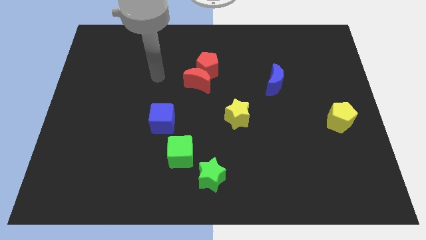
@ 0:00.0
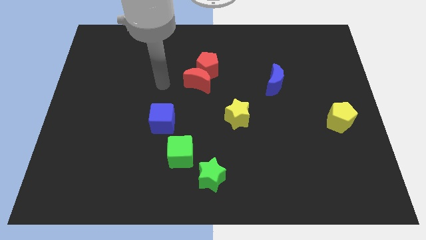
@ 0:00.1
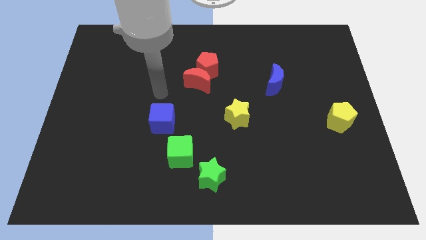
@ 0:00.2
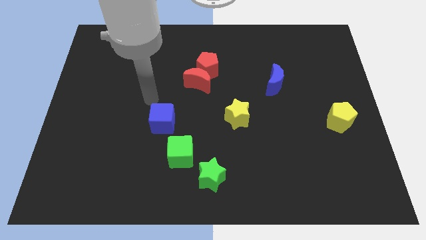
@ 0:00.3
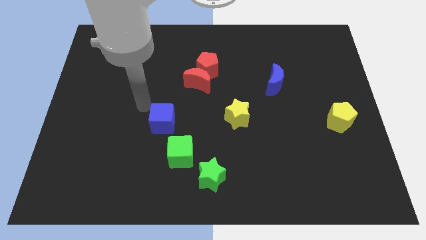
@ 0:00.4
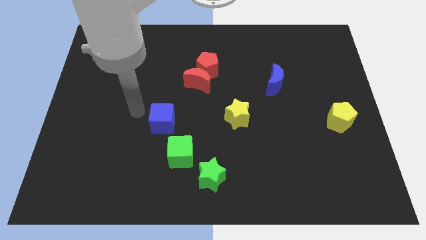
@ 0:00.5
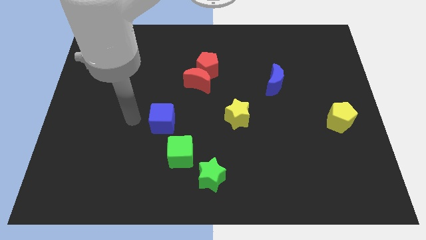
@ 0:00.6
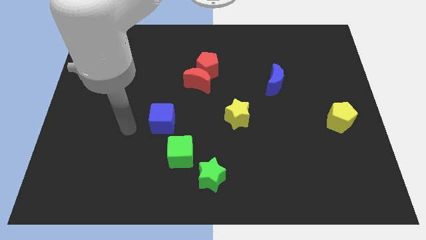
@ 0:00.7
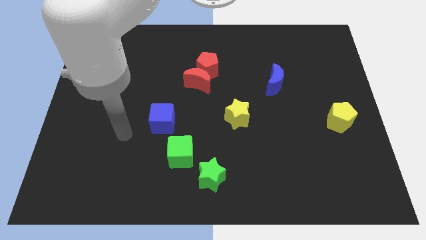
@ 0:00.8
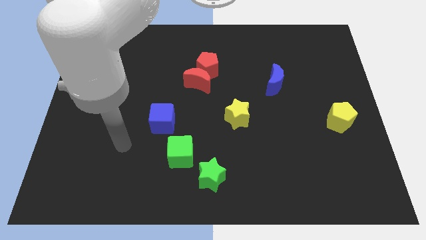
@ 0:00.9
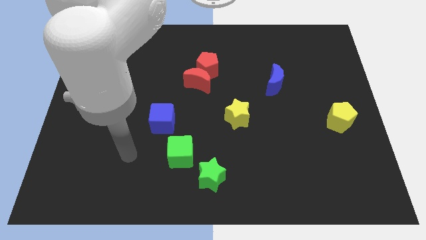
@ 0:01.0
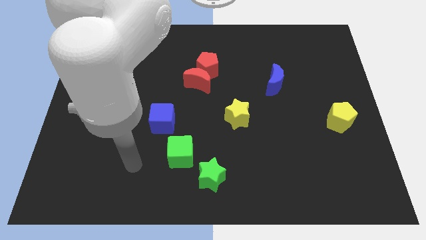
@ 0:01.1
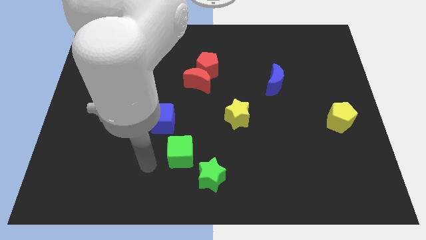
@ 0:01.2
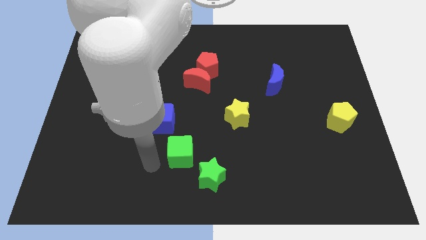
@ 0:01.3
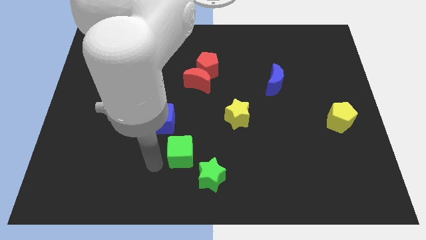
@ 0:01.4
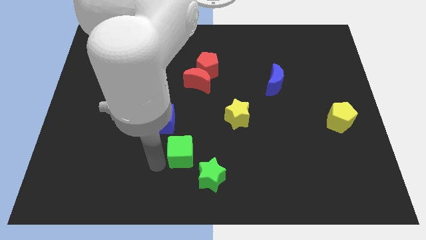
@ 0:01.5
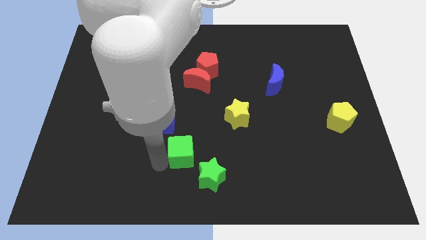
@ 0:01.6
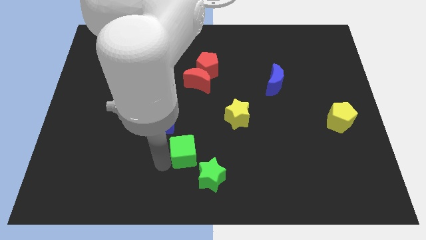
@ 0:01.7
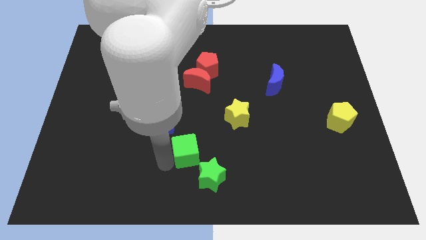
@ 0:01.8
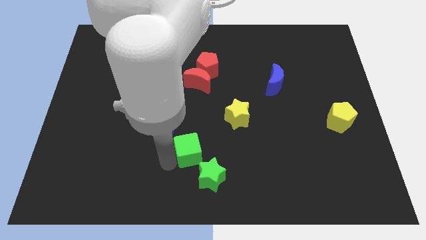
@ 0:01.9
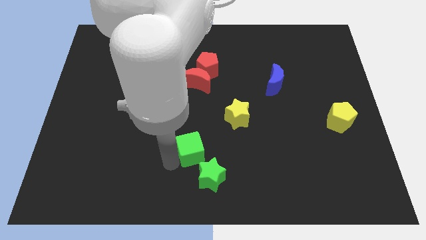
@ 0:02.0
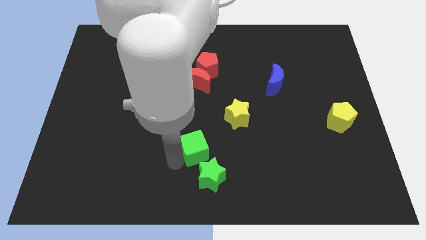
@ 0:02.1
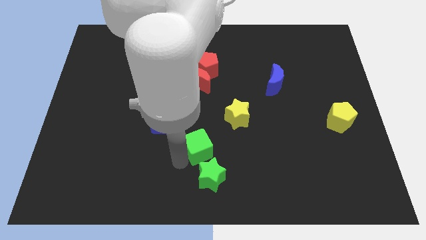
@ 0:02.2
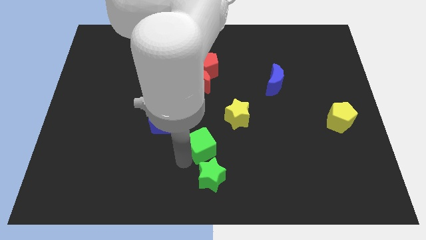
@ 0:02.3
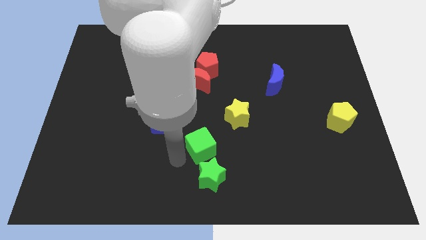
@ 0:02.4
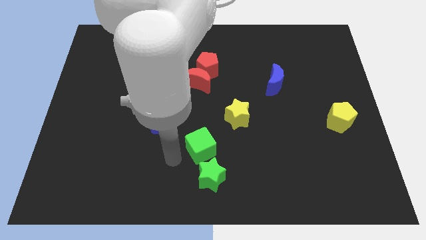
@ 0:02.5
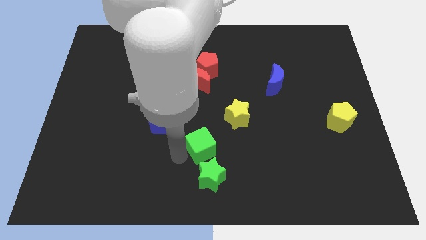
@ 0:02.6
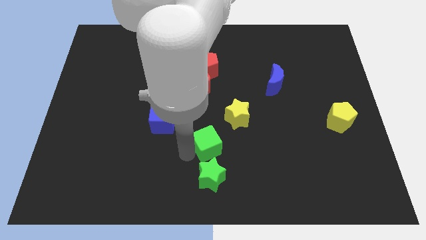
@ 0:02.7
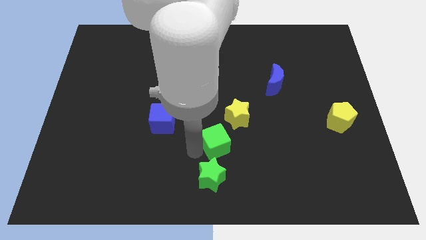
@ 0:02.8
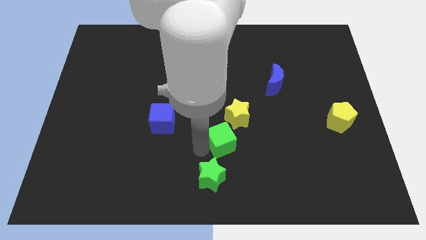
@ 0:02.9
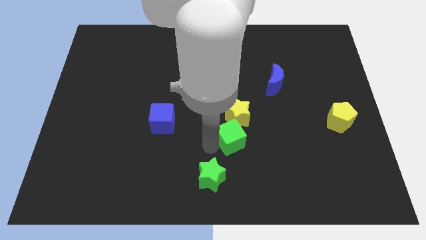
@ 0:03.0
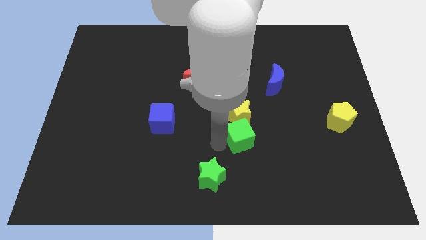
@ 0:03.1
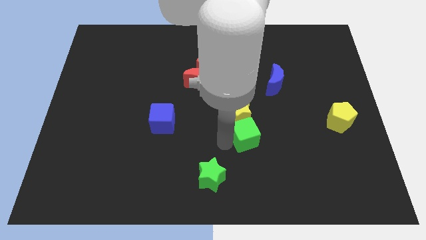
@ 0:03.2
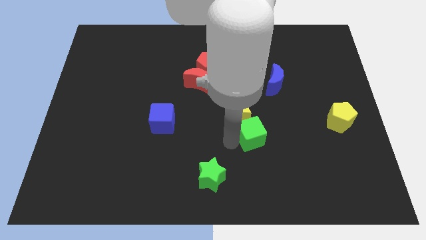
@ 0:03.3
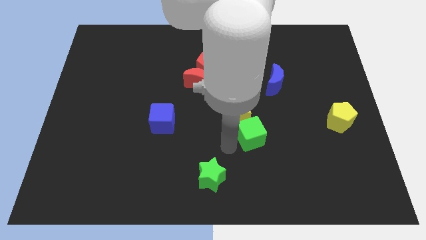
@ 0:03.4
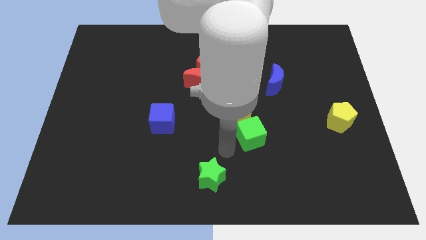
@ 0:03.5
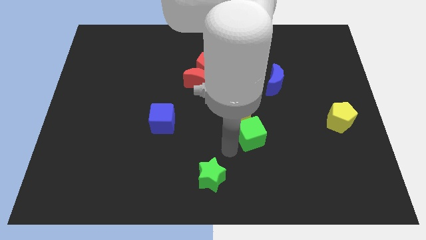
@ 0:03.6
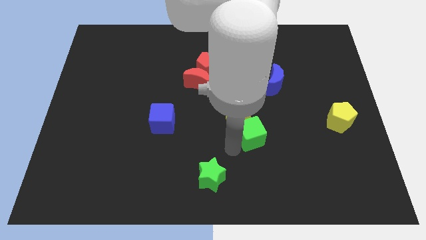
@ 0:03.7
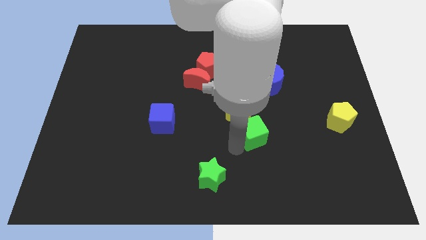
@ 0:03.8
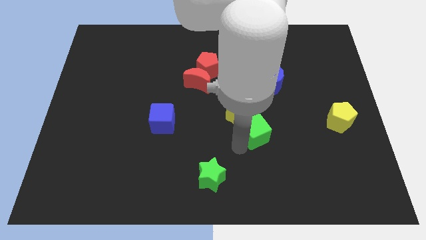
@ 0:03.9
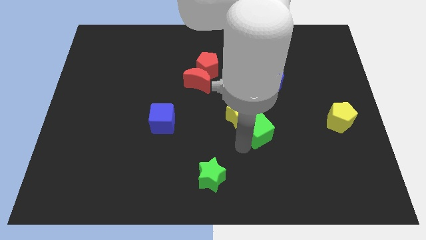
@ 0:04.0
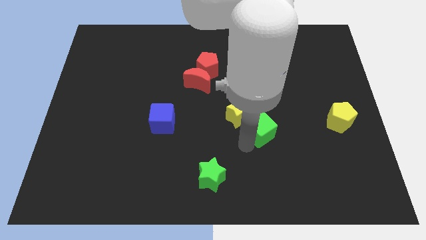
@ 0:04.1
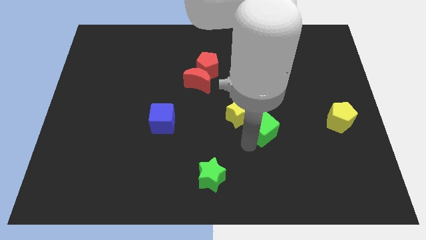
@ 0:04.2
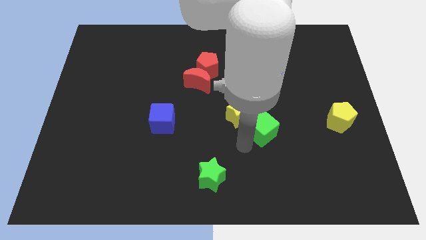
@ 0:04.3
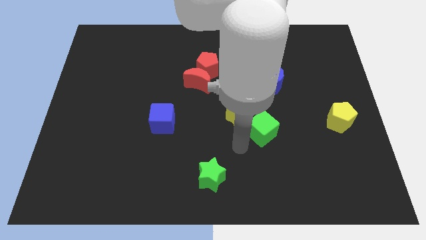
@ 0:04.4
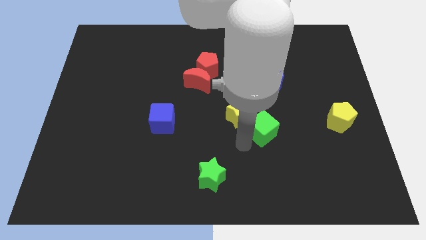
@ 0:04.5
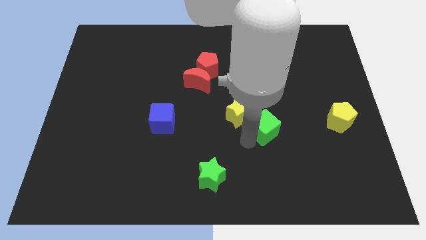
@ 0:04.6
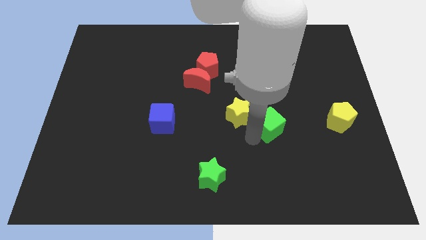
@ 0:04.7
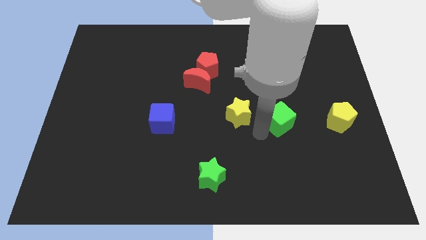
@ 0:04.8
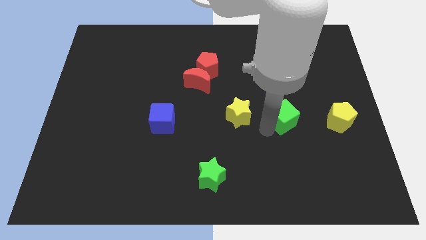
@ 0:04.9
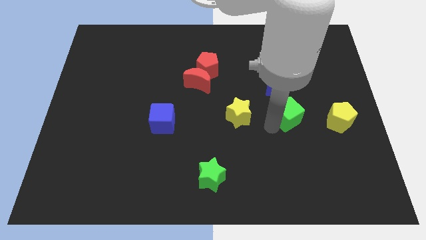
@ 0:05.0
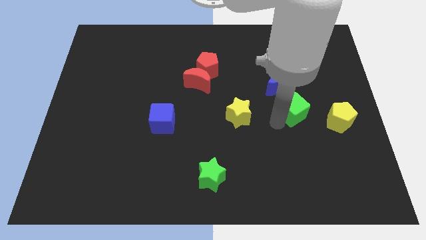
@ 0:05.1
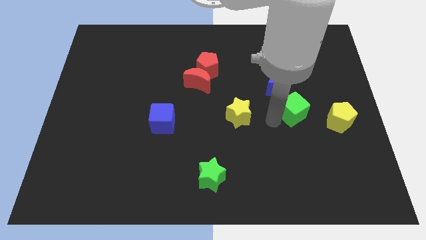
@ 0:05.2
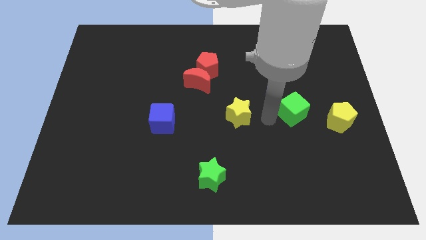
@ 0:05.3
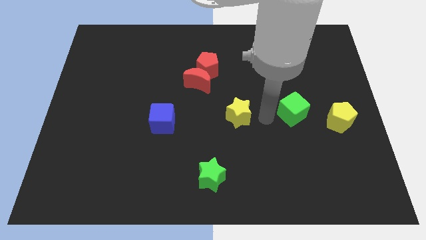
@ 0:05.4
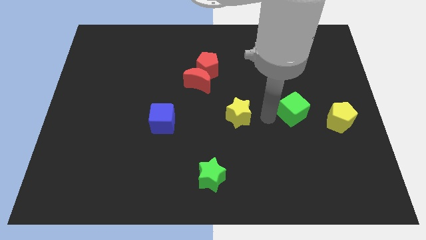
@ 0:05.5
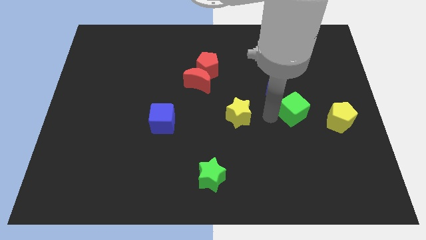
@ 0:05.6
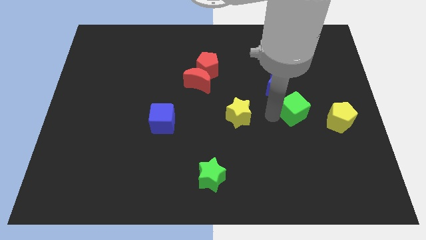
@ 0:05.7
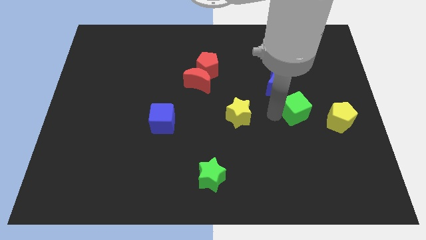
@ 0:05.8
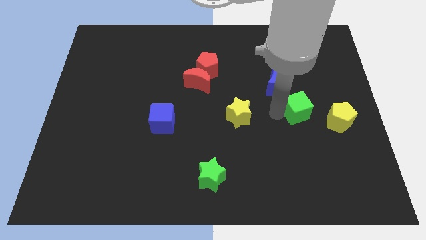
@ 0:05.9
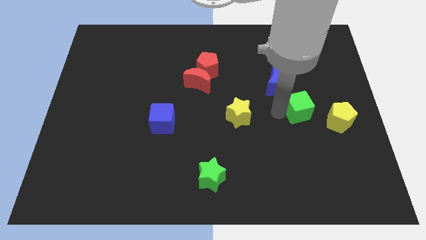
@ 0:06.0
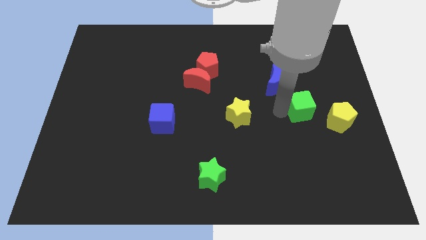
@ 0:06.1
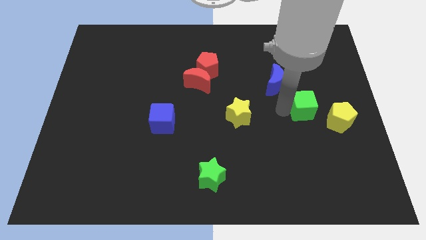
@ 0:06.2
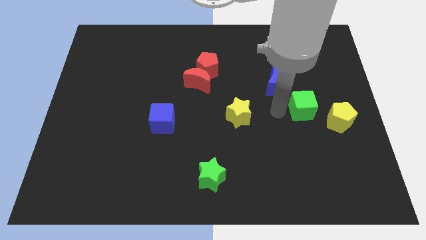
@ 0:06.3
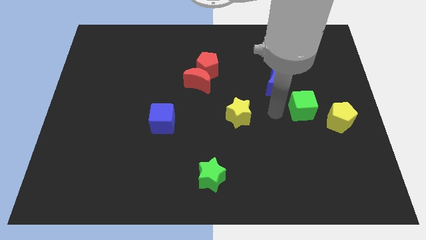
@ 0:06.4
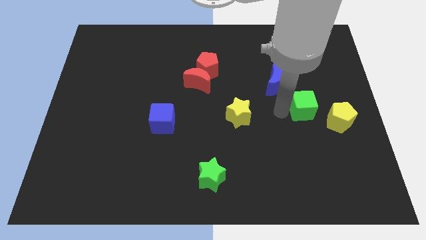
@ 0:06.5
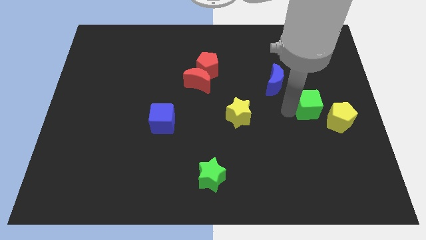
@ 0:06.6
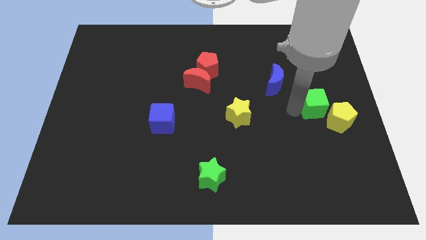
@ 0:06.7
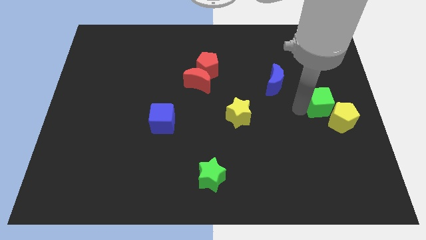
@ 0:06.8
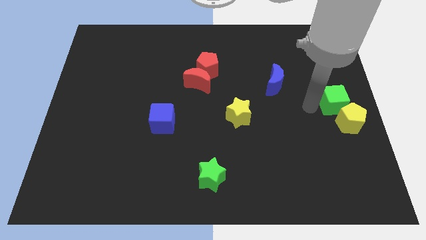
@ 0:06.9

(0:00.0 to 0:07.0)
move the green cube to the right side

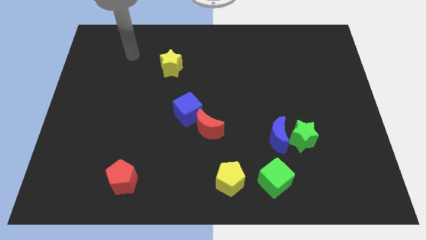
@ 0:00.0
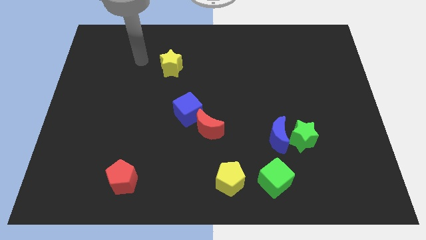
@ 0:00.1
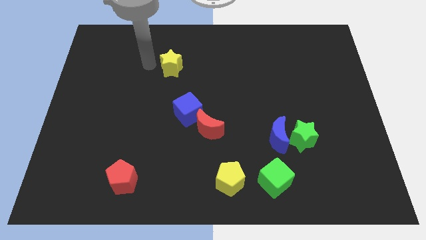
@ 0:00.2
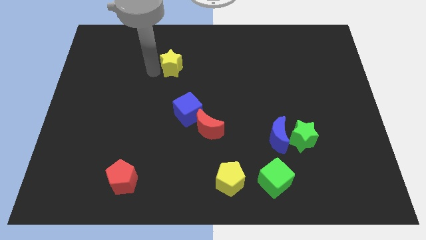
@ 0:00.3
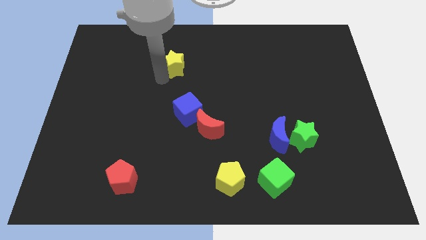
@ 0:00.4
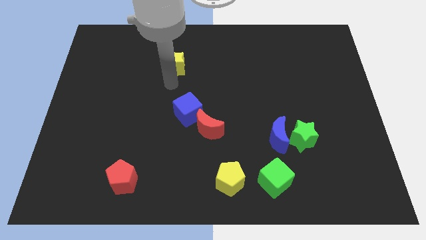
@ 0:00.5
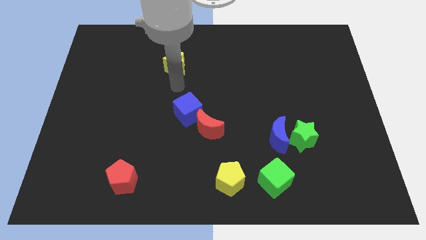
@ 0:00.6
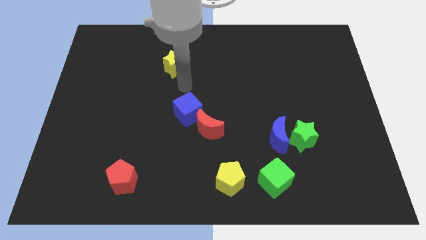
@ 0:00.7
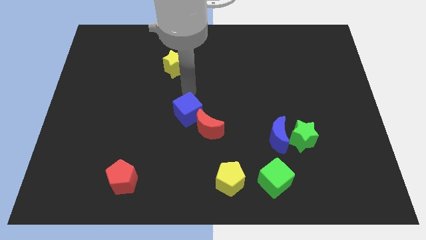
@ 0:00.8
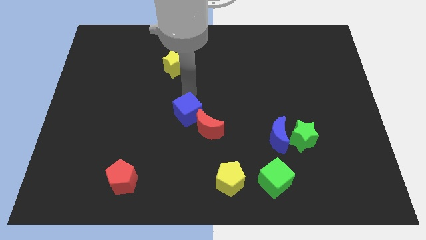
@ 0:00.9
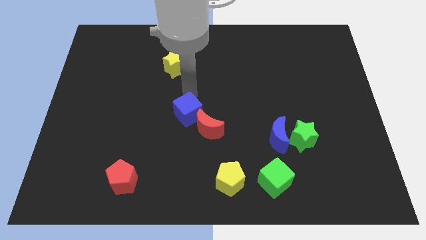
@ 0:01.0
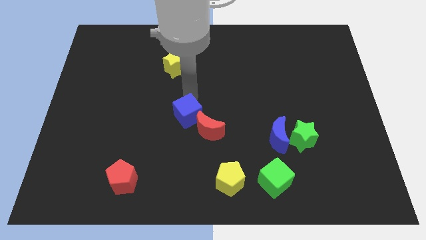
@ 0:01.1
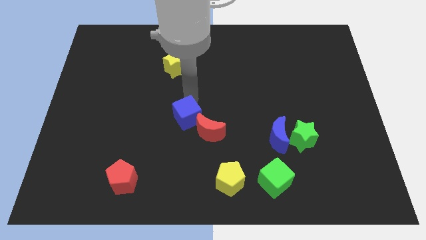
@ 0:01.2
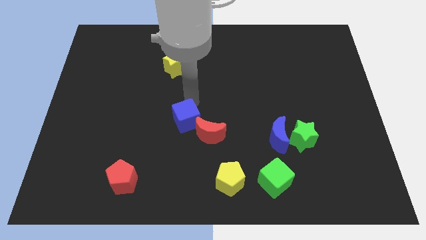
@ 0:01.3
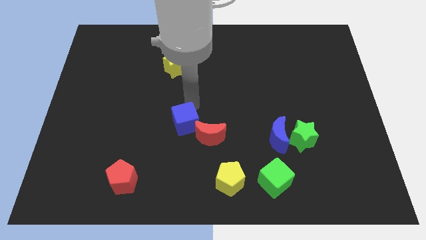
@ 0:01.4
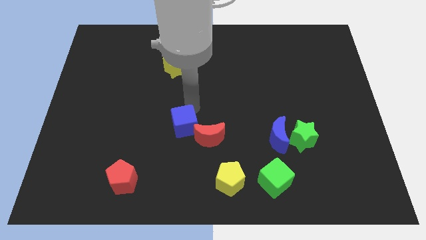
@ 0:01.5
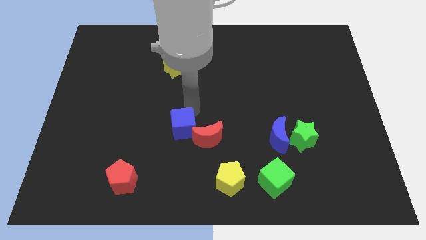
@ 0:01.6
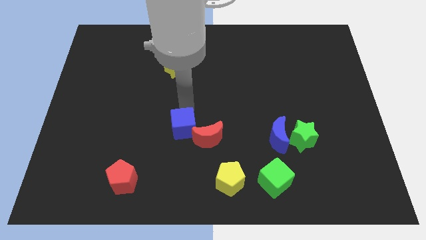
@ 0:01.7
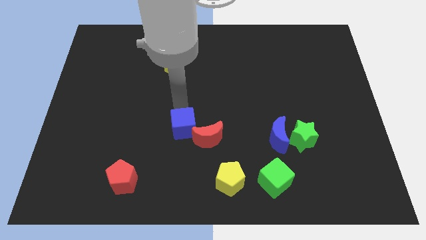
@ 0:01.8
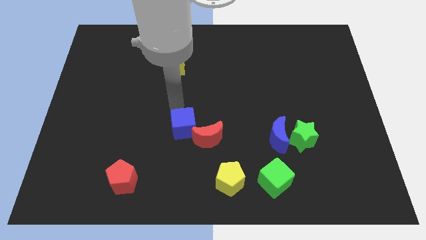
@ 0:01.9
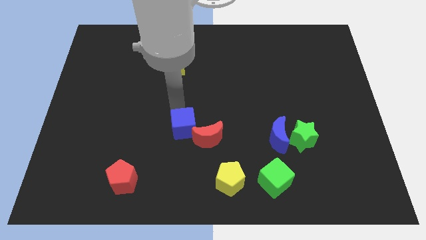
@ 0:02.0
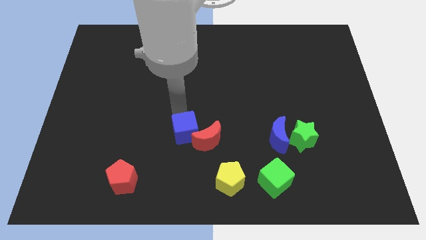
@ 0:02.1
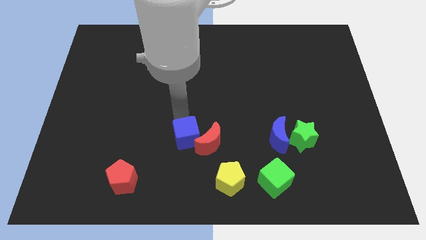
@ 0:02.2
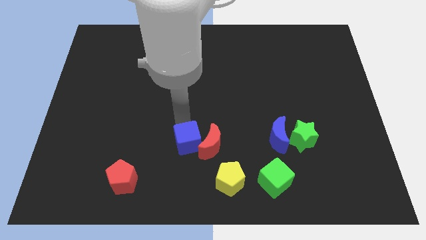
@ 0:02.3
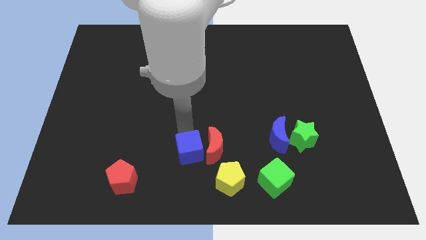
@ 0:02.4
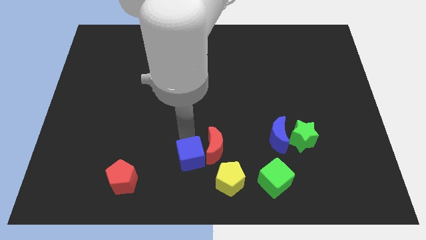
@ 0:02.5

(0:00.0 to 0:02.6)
push the blue cube to the bottom
